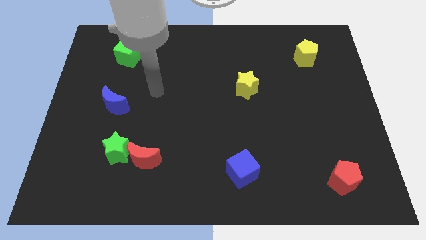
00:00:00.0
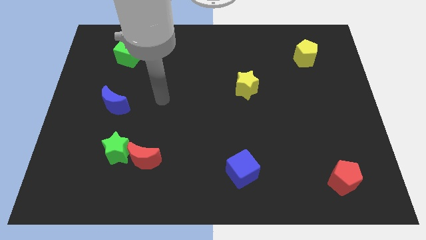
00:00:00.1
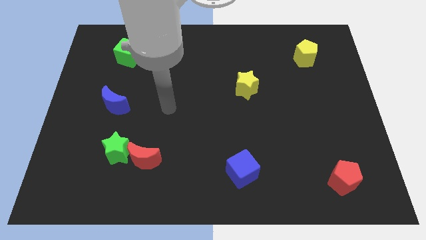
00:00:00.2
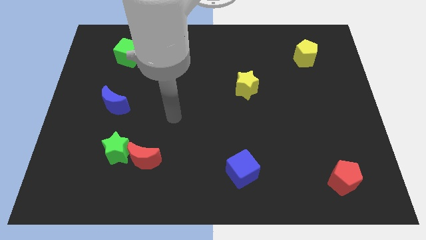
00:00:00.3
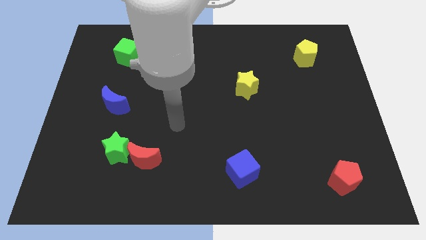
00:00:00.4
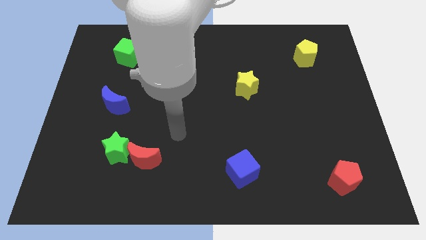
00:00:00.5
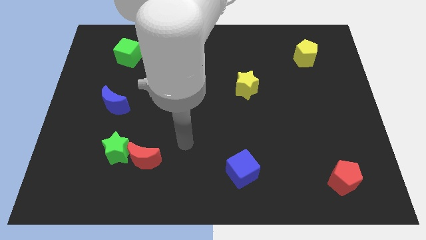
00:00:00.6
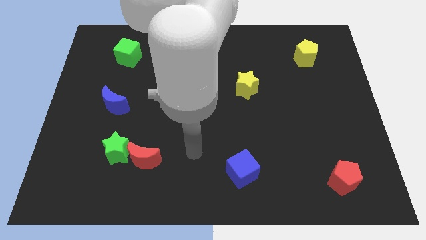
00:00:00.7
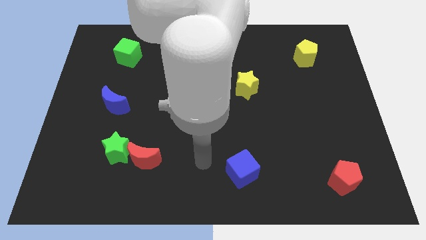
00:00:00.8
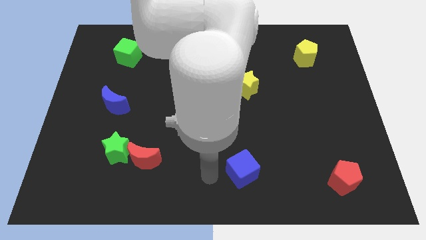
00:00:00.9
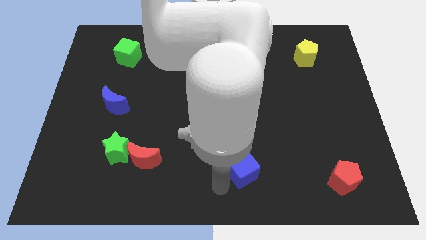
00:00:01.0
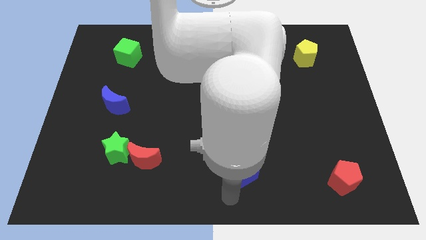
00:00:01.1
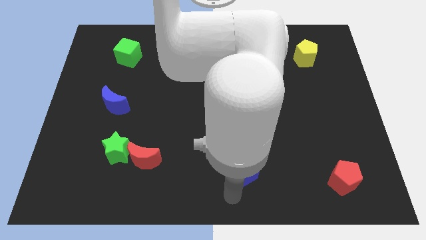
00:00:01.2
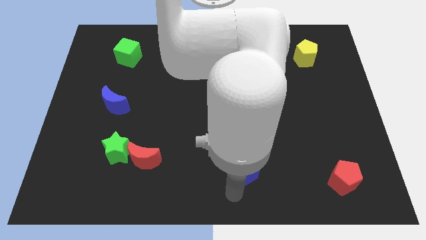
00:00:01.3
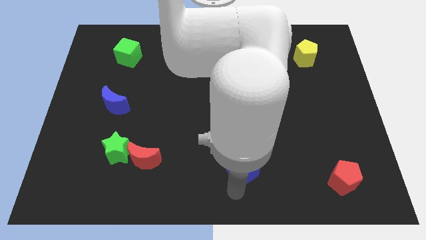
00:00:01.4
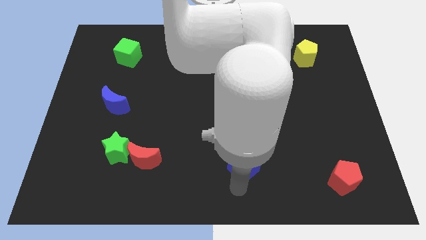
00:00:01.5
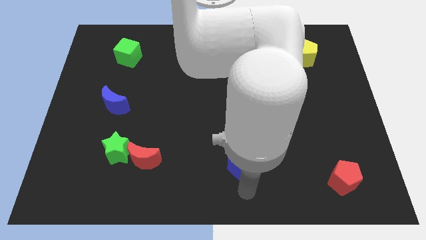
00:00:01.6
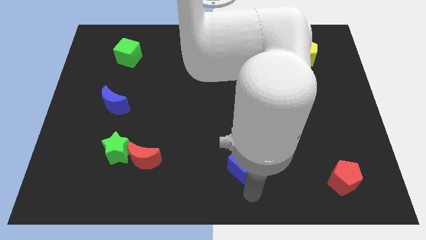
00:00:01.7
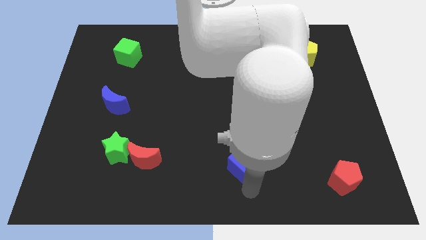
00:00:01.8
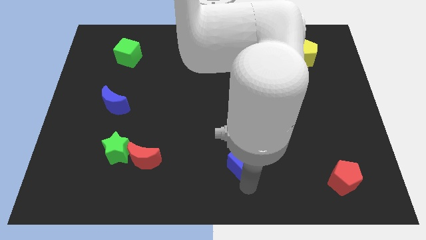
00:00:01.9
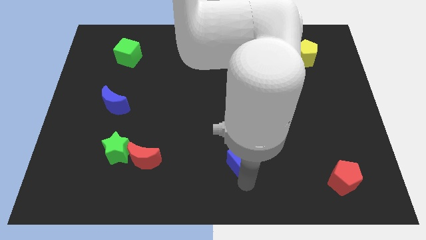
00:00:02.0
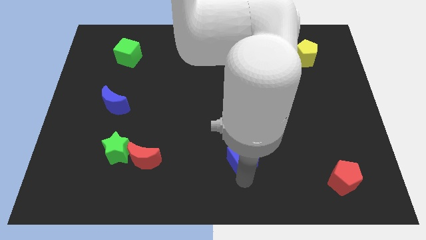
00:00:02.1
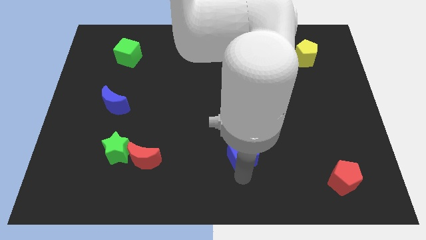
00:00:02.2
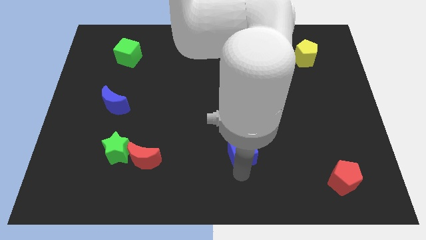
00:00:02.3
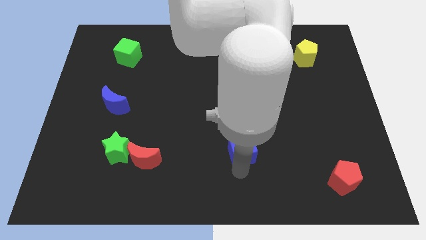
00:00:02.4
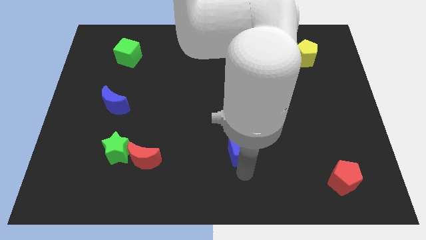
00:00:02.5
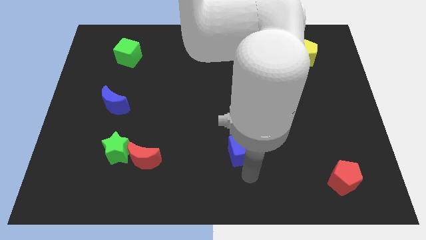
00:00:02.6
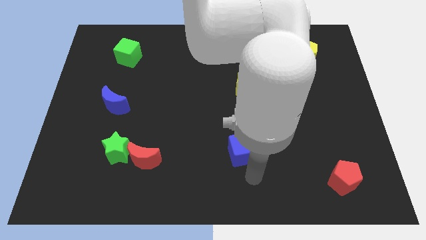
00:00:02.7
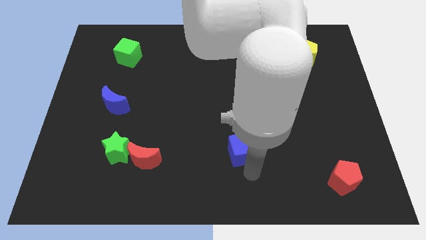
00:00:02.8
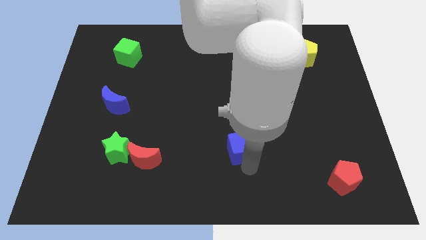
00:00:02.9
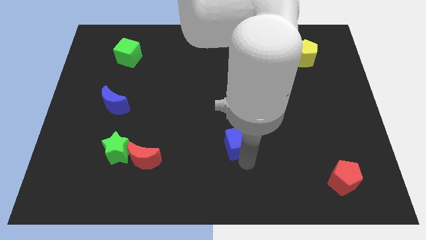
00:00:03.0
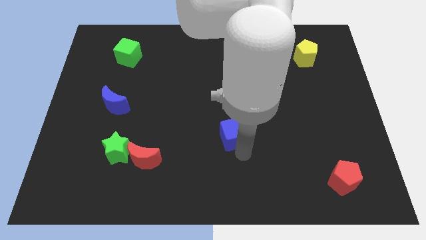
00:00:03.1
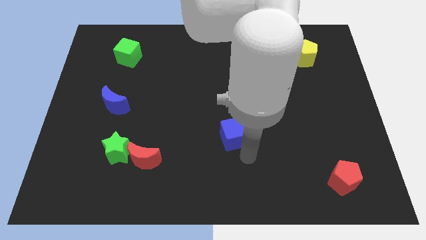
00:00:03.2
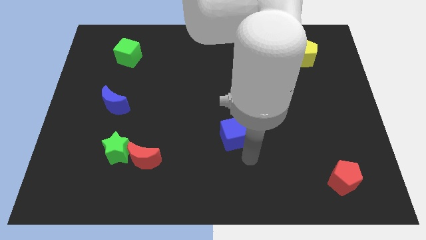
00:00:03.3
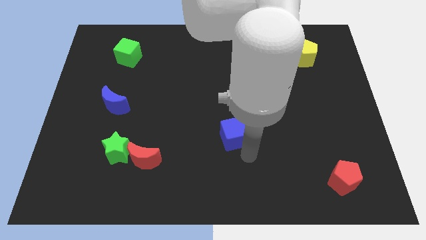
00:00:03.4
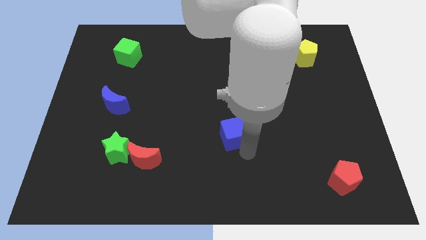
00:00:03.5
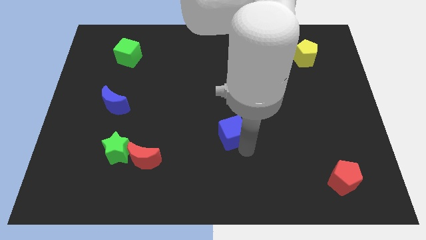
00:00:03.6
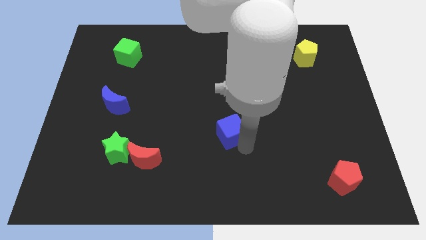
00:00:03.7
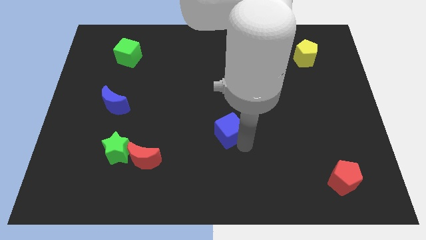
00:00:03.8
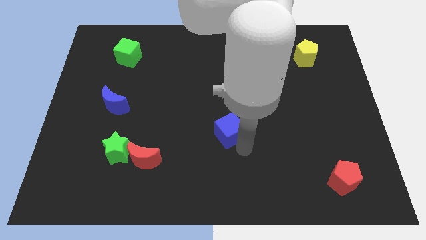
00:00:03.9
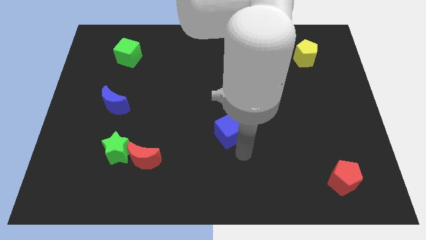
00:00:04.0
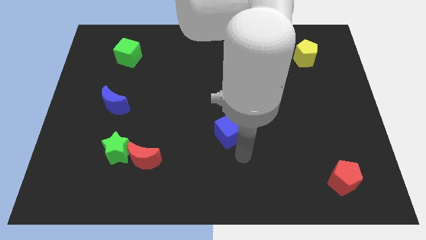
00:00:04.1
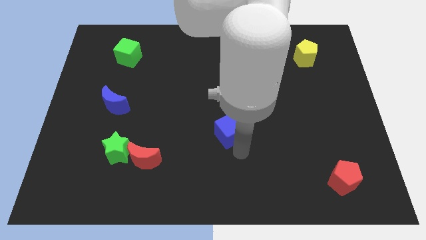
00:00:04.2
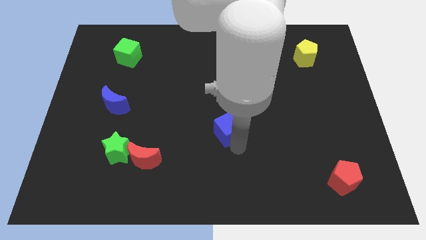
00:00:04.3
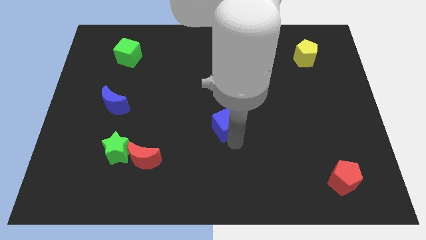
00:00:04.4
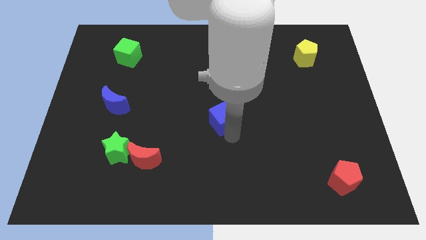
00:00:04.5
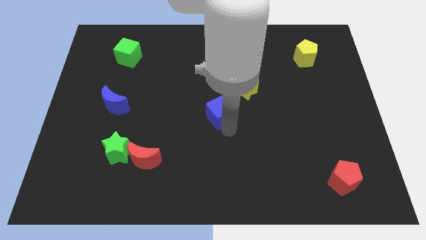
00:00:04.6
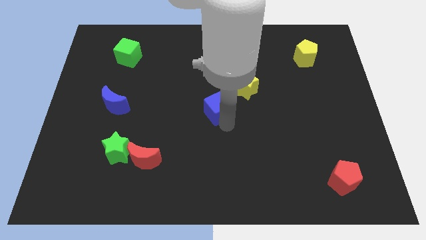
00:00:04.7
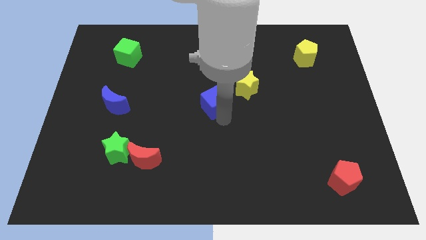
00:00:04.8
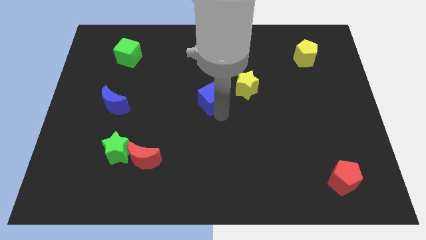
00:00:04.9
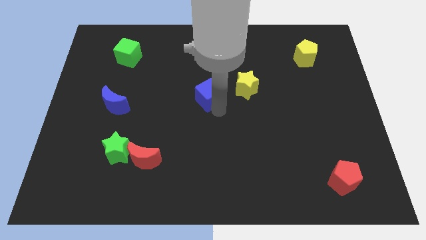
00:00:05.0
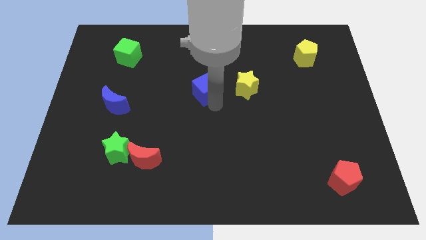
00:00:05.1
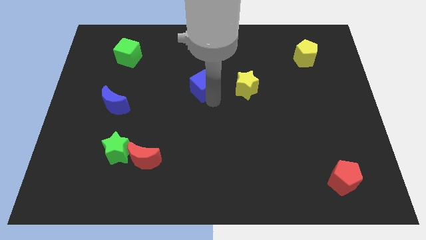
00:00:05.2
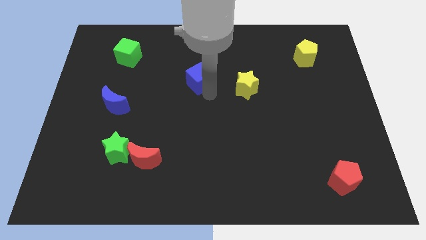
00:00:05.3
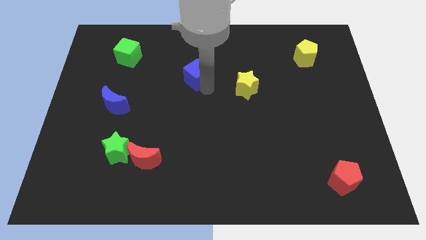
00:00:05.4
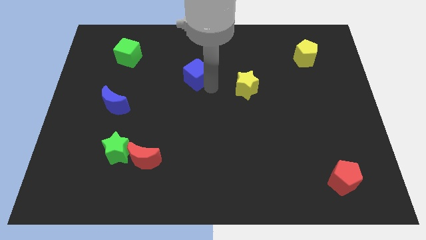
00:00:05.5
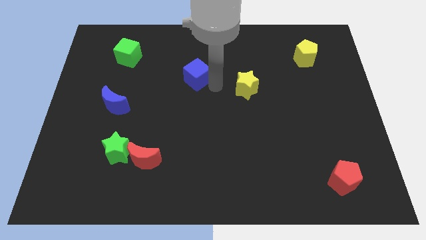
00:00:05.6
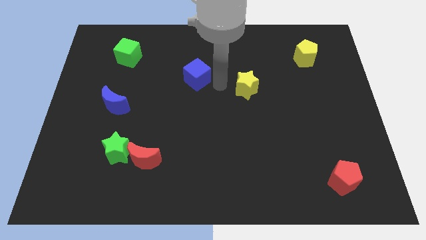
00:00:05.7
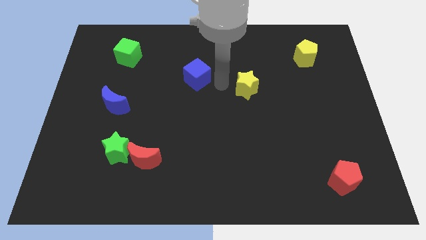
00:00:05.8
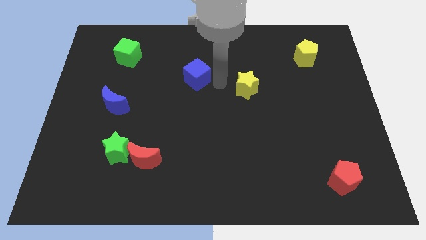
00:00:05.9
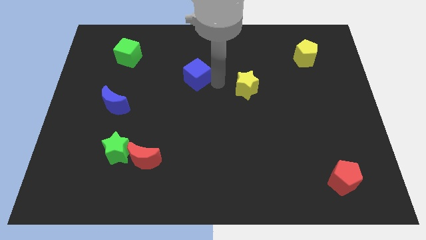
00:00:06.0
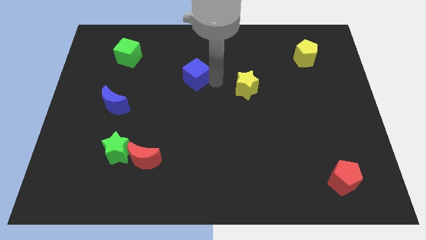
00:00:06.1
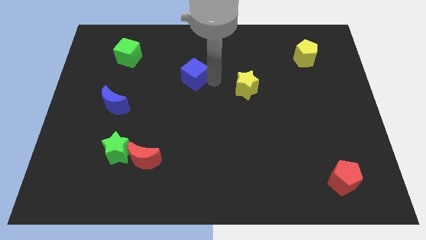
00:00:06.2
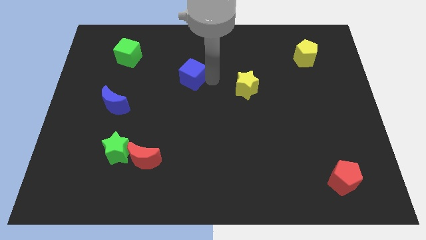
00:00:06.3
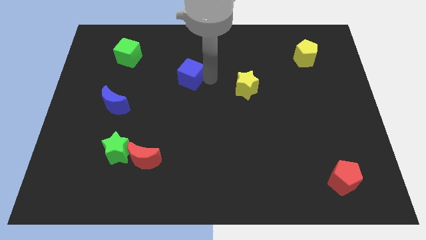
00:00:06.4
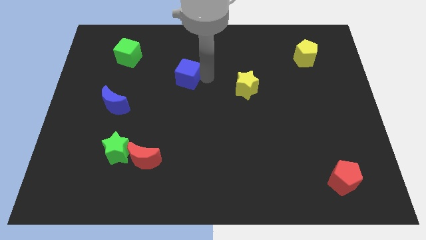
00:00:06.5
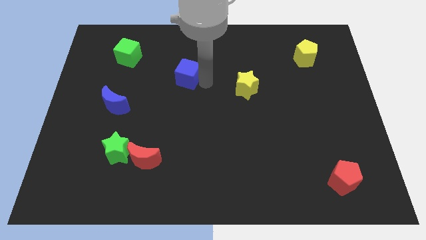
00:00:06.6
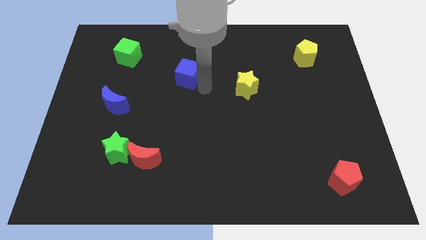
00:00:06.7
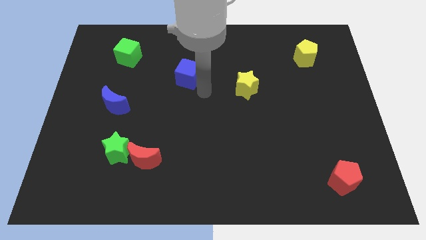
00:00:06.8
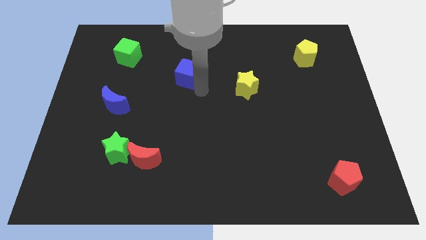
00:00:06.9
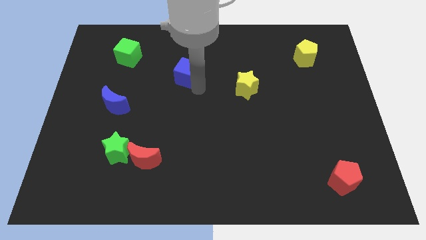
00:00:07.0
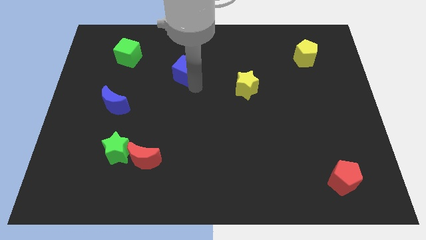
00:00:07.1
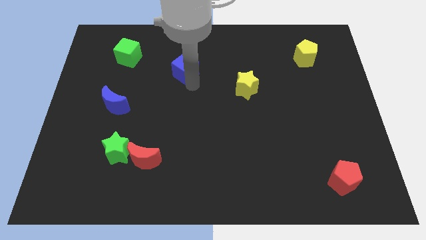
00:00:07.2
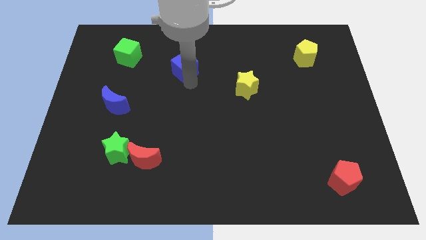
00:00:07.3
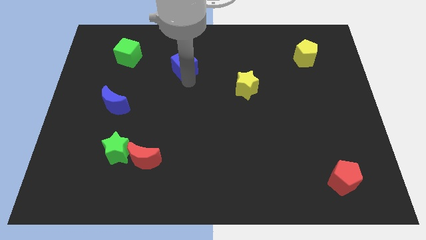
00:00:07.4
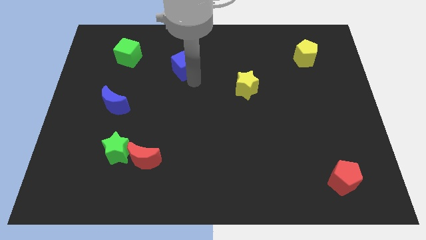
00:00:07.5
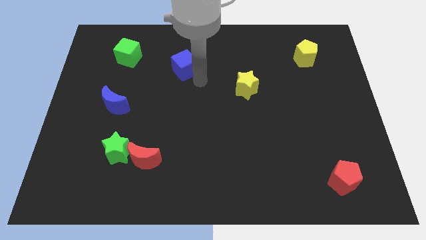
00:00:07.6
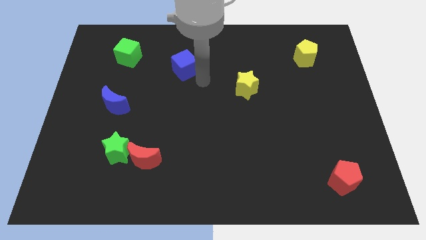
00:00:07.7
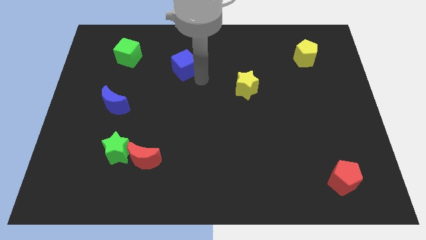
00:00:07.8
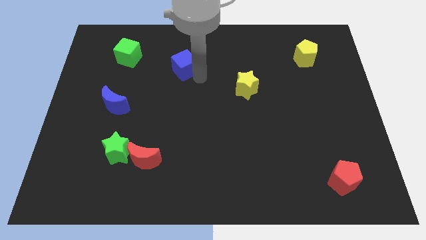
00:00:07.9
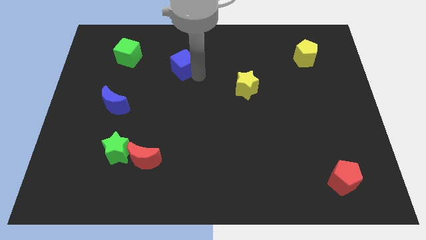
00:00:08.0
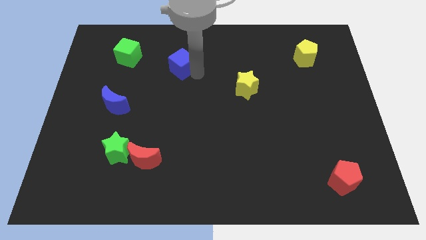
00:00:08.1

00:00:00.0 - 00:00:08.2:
put the blue cube to the right side of the green cube
